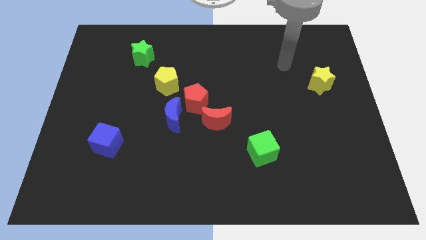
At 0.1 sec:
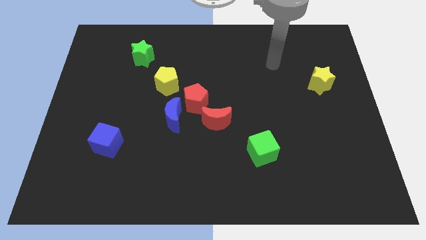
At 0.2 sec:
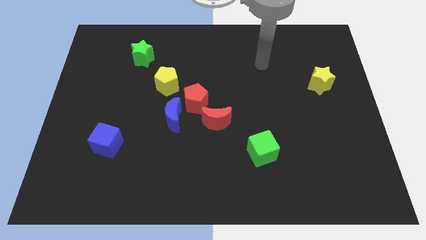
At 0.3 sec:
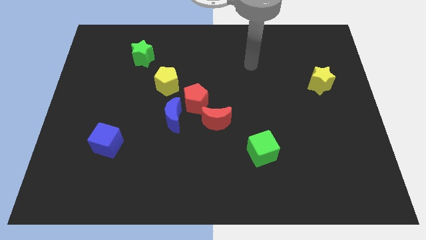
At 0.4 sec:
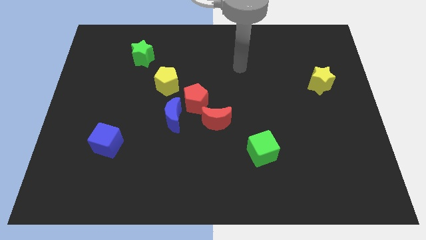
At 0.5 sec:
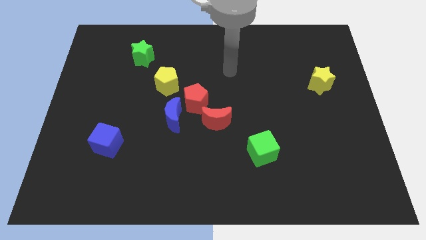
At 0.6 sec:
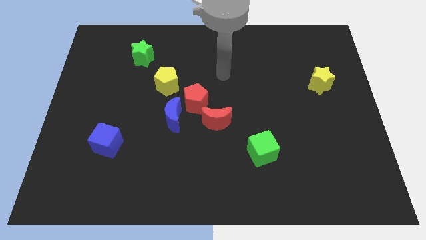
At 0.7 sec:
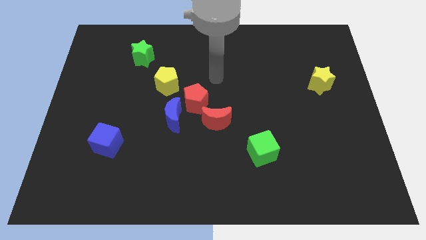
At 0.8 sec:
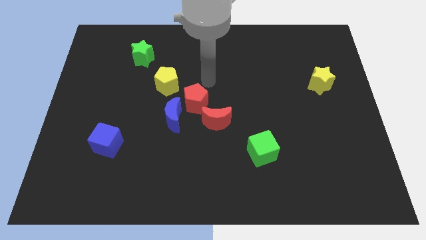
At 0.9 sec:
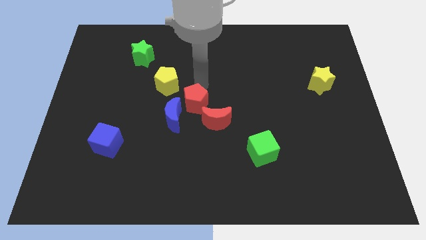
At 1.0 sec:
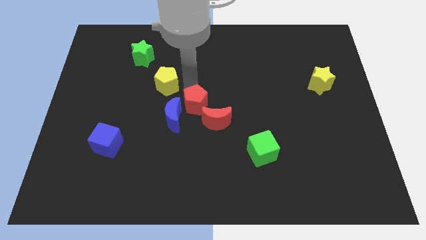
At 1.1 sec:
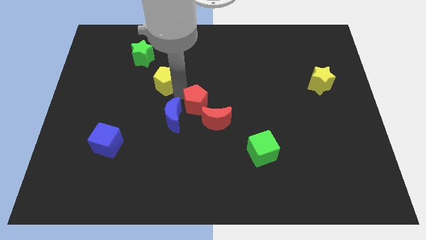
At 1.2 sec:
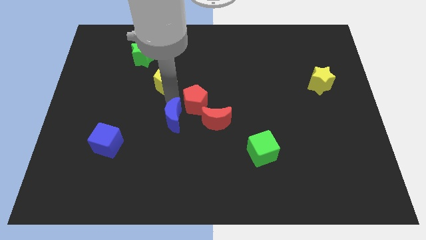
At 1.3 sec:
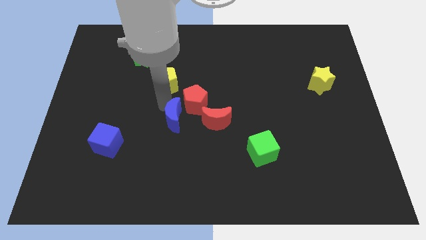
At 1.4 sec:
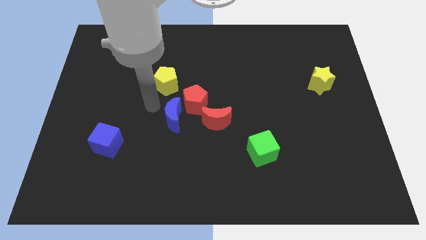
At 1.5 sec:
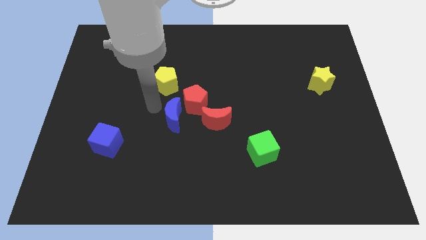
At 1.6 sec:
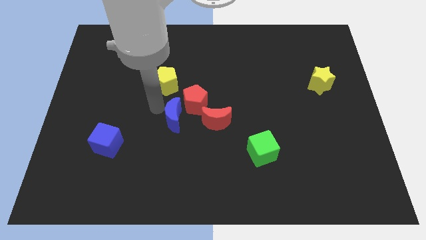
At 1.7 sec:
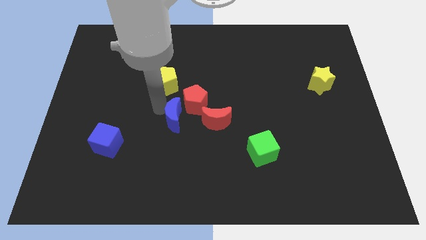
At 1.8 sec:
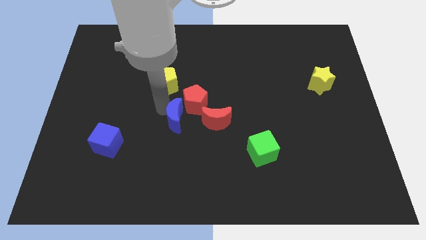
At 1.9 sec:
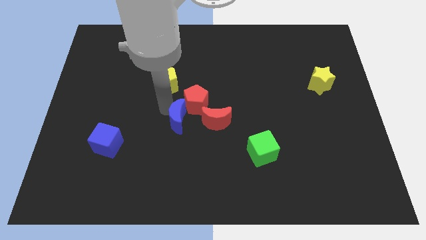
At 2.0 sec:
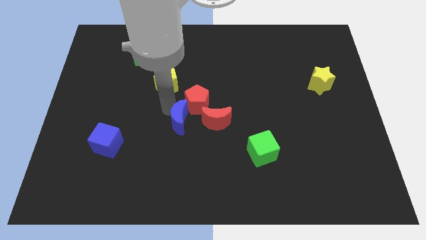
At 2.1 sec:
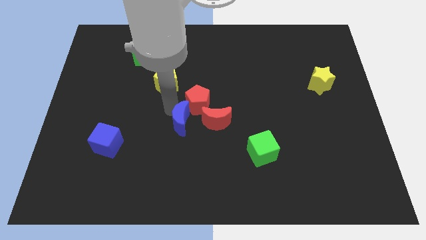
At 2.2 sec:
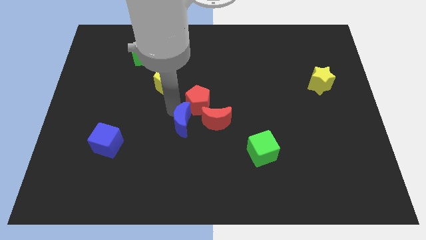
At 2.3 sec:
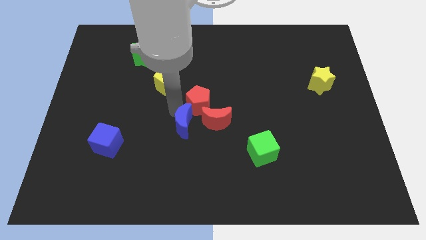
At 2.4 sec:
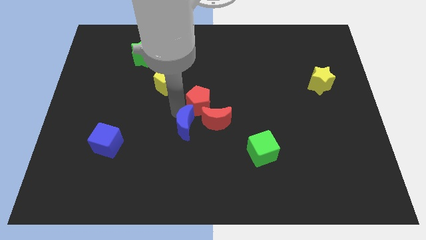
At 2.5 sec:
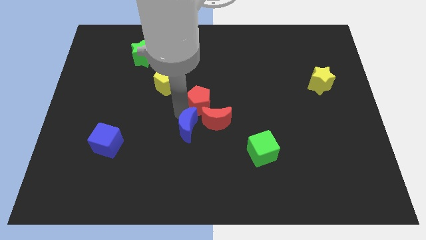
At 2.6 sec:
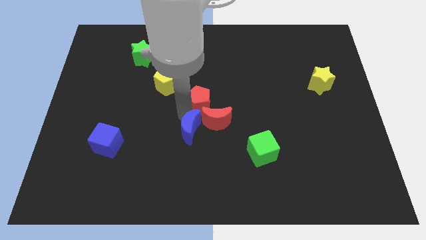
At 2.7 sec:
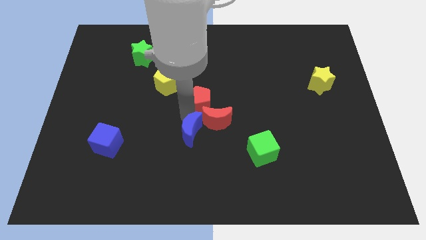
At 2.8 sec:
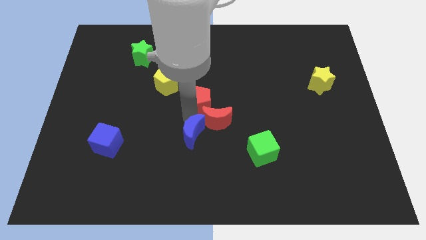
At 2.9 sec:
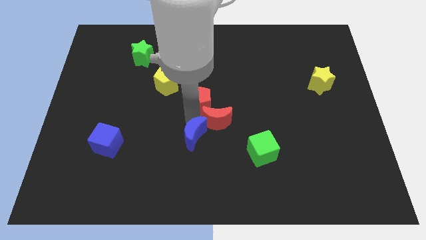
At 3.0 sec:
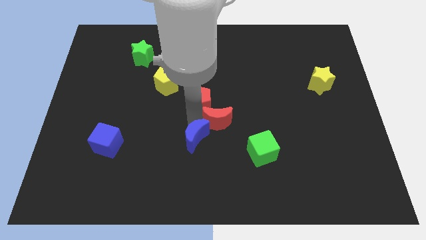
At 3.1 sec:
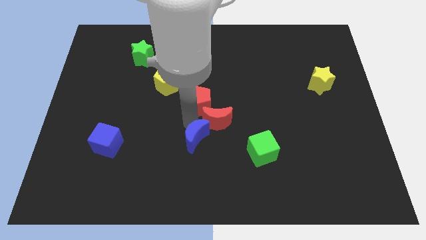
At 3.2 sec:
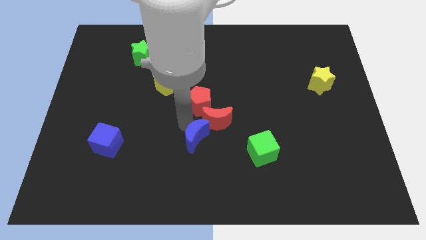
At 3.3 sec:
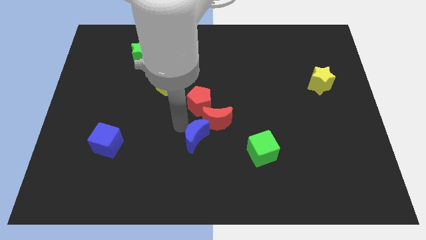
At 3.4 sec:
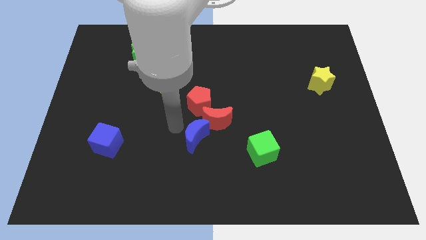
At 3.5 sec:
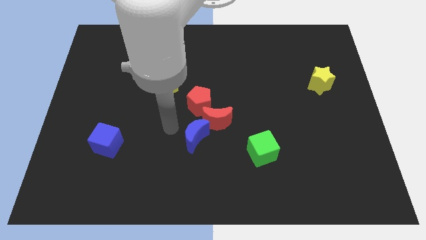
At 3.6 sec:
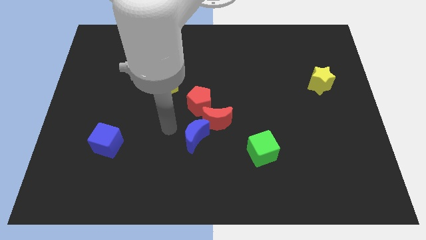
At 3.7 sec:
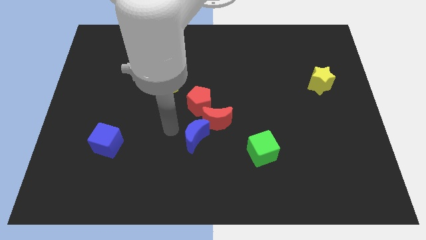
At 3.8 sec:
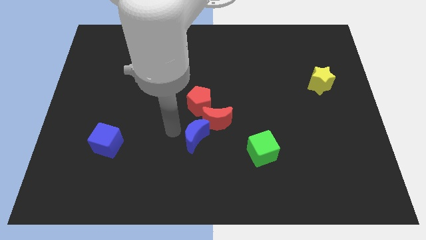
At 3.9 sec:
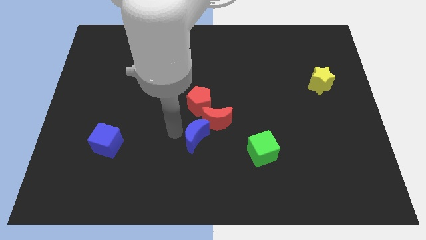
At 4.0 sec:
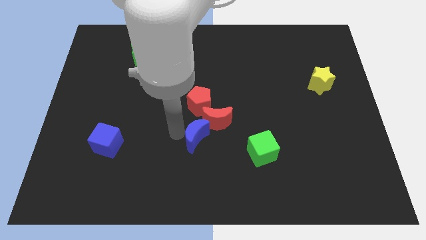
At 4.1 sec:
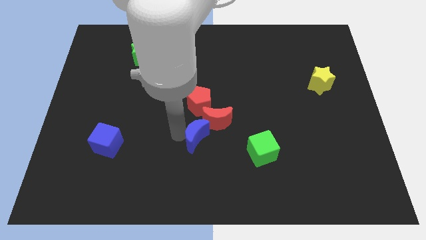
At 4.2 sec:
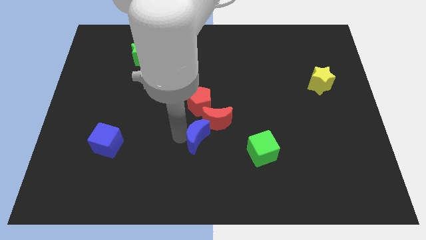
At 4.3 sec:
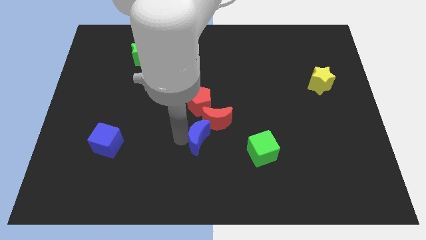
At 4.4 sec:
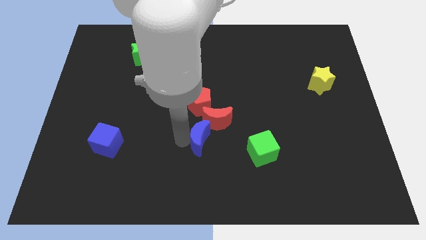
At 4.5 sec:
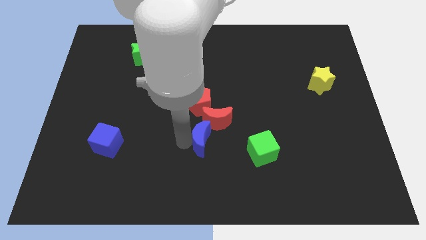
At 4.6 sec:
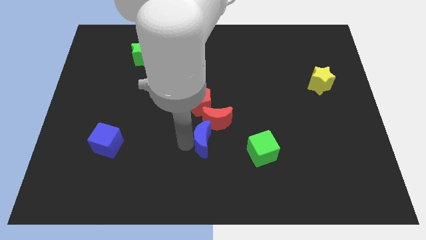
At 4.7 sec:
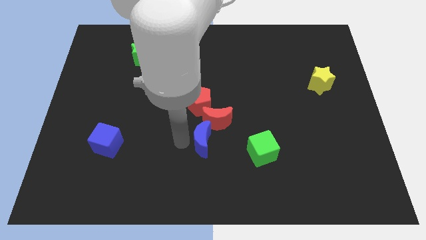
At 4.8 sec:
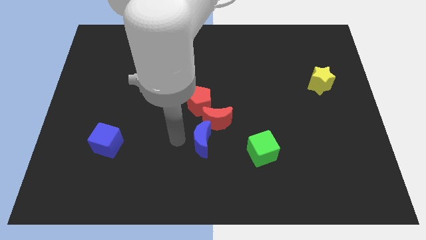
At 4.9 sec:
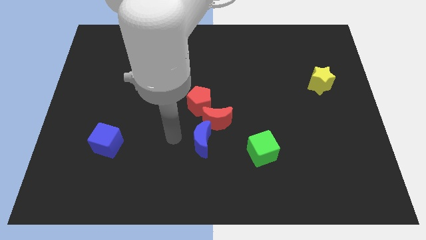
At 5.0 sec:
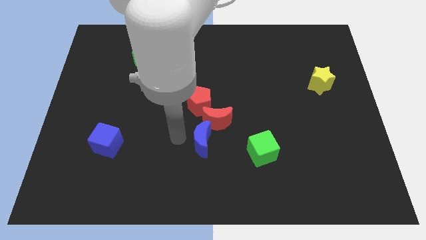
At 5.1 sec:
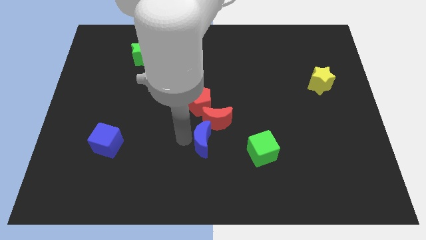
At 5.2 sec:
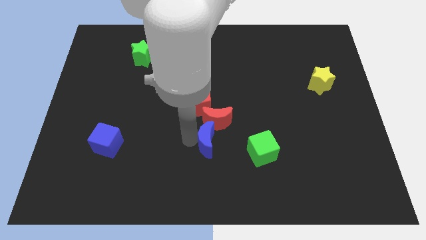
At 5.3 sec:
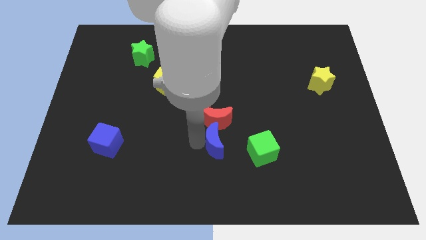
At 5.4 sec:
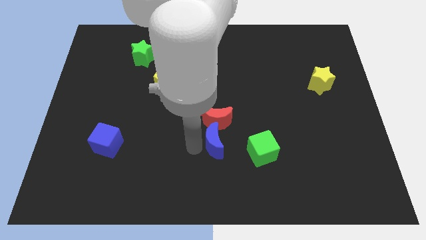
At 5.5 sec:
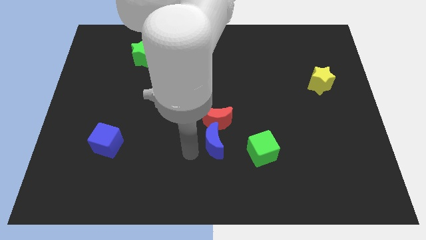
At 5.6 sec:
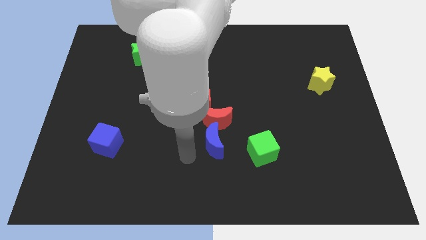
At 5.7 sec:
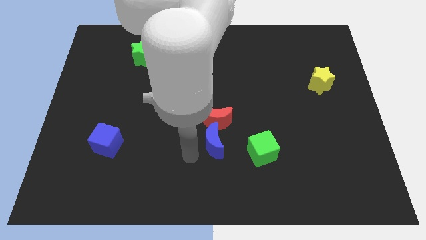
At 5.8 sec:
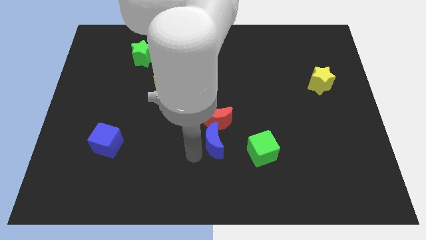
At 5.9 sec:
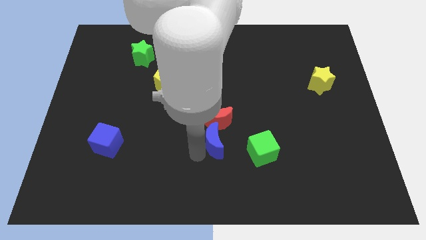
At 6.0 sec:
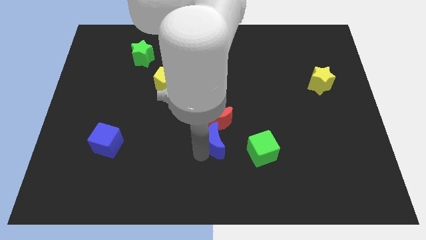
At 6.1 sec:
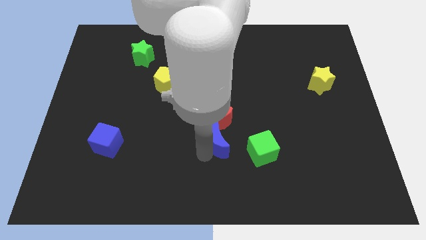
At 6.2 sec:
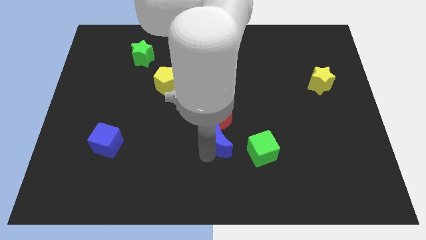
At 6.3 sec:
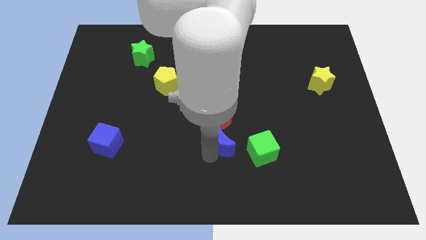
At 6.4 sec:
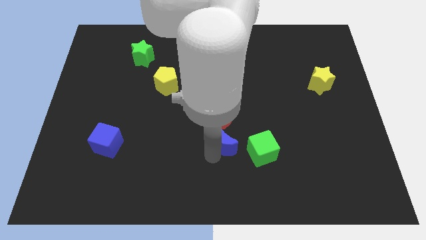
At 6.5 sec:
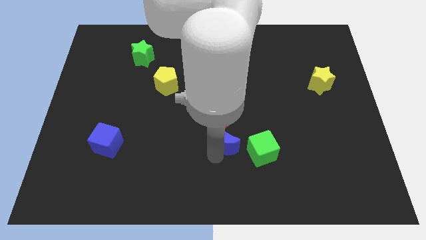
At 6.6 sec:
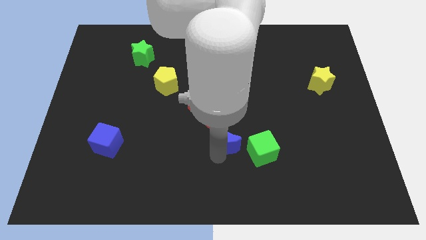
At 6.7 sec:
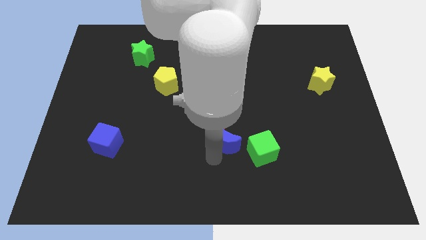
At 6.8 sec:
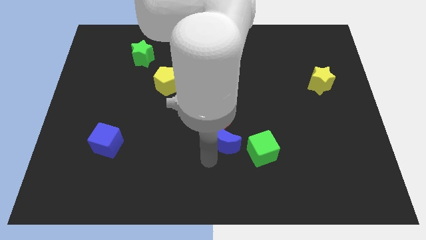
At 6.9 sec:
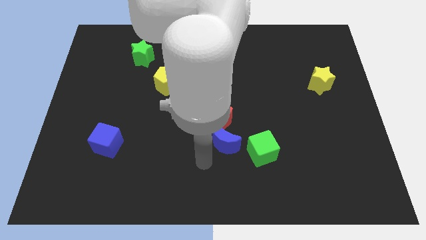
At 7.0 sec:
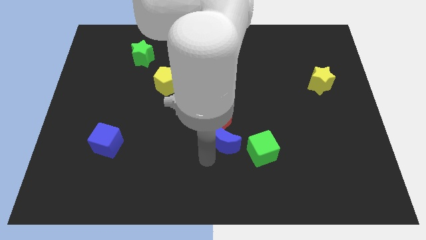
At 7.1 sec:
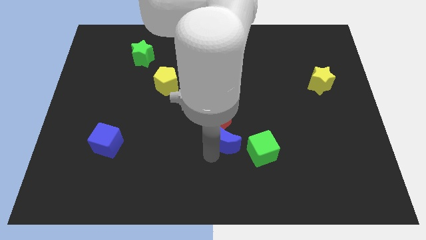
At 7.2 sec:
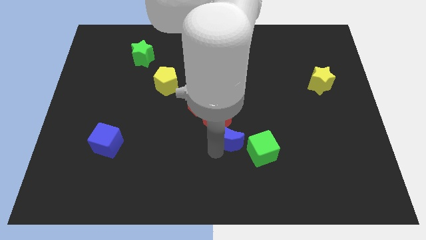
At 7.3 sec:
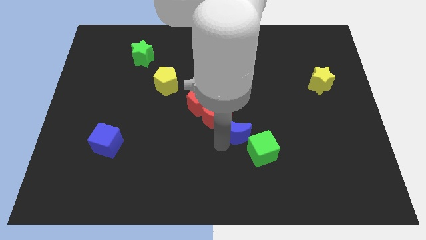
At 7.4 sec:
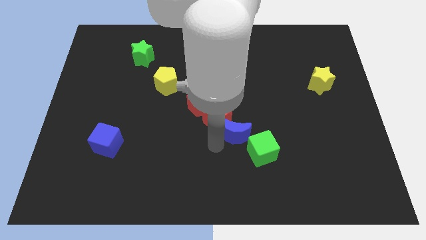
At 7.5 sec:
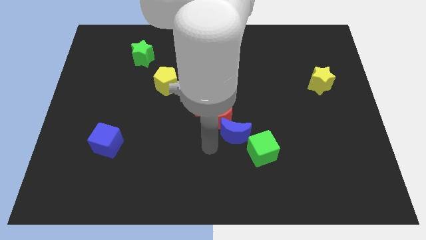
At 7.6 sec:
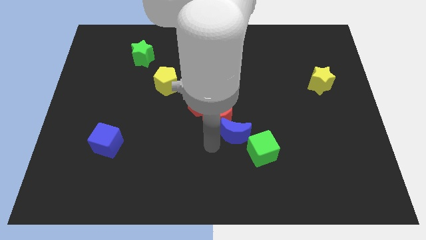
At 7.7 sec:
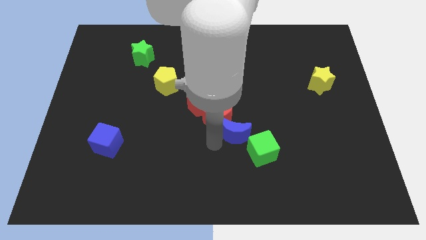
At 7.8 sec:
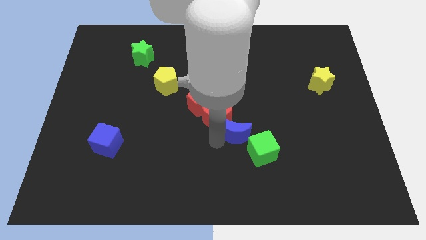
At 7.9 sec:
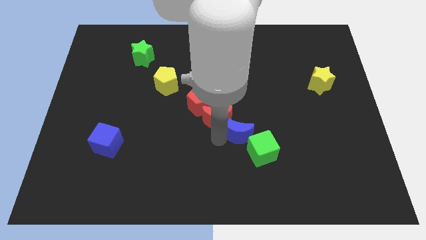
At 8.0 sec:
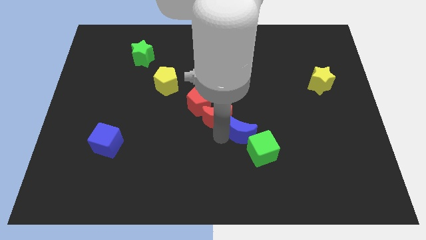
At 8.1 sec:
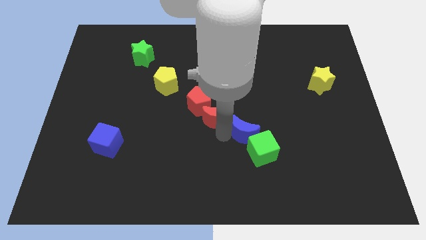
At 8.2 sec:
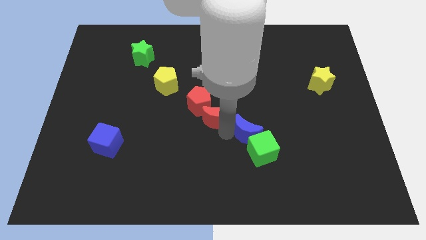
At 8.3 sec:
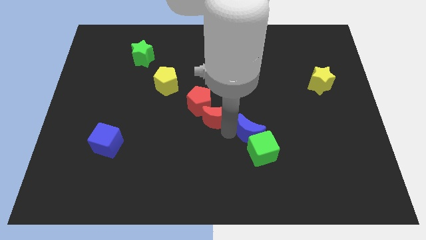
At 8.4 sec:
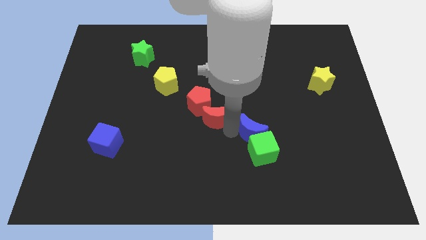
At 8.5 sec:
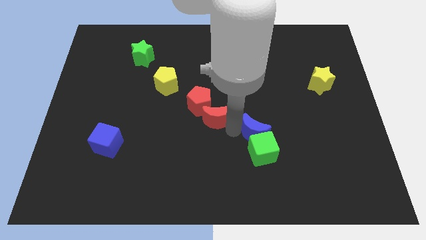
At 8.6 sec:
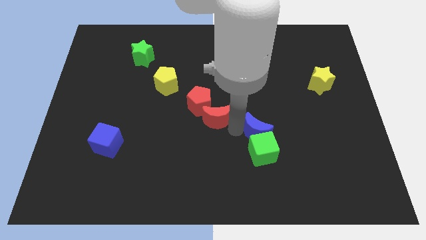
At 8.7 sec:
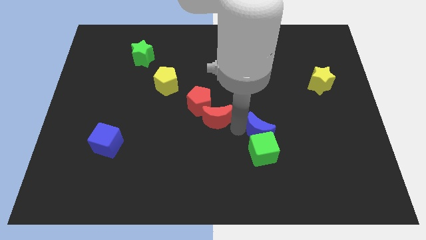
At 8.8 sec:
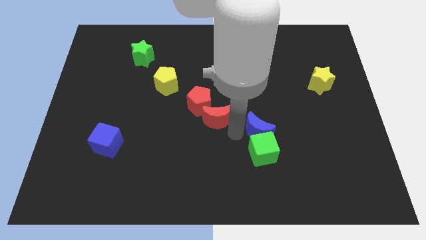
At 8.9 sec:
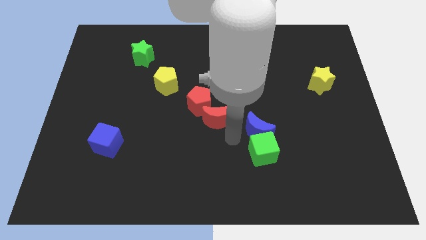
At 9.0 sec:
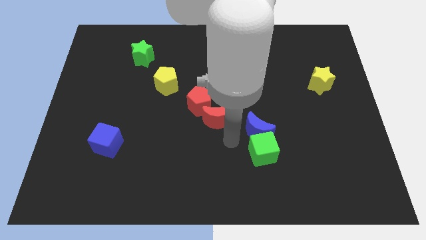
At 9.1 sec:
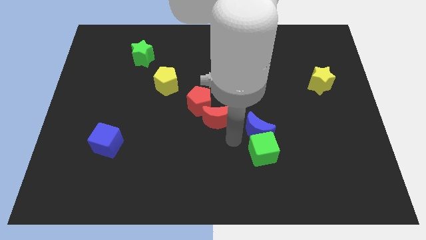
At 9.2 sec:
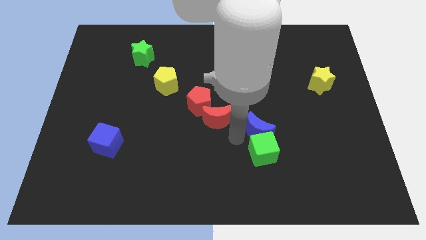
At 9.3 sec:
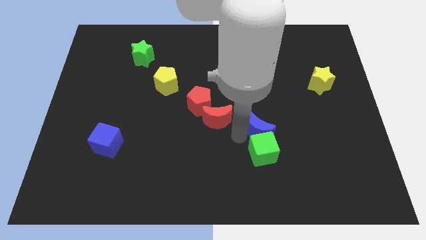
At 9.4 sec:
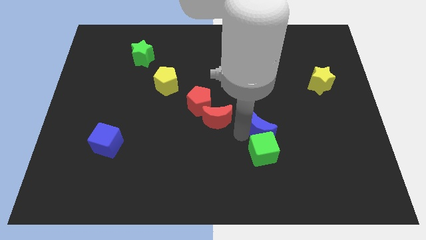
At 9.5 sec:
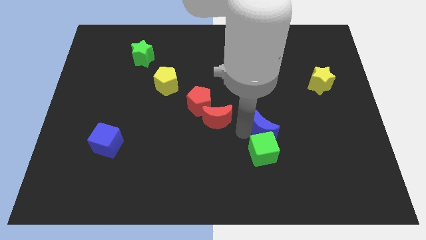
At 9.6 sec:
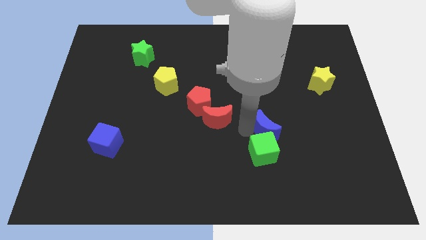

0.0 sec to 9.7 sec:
move the blue moon to the right
